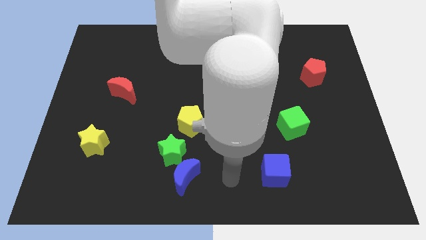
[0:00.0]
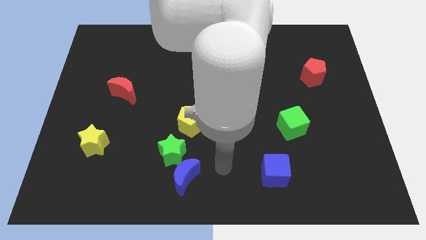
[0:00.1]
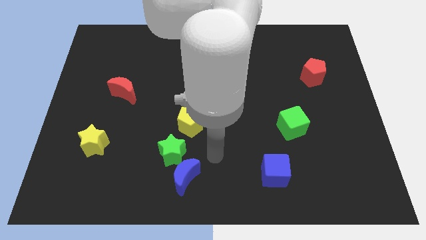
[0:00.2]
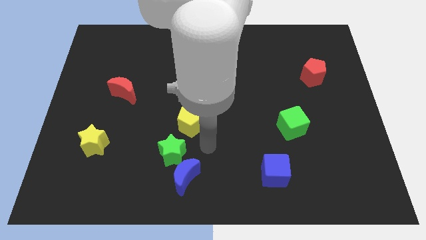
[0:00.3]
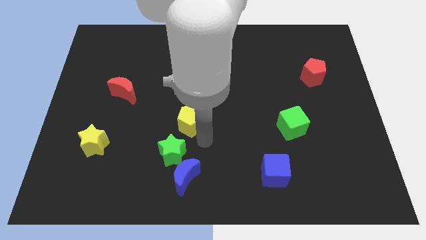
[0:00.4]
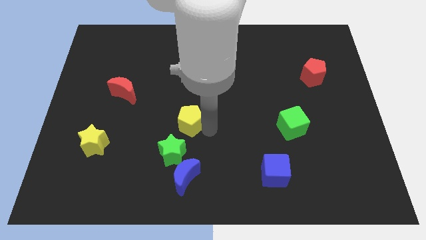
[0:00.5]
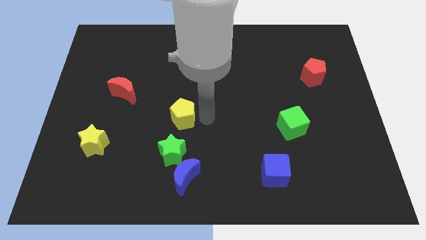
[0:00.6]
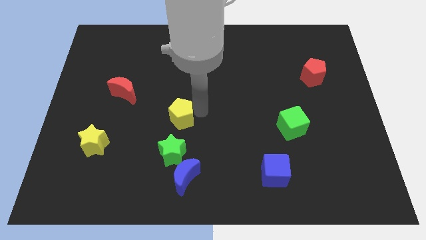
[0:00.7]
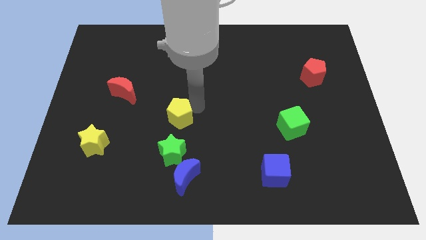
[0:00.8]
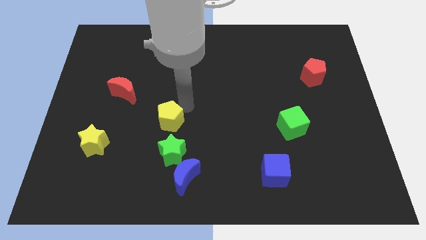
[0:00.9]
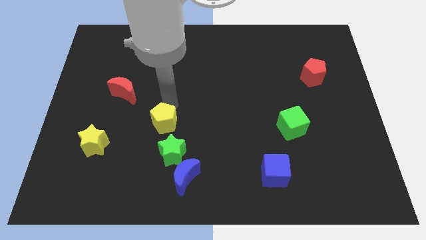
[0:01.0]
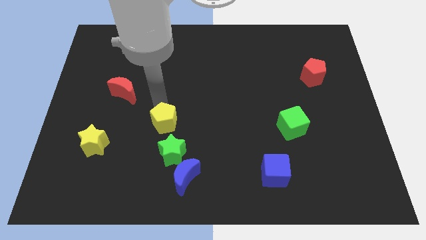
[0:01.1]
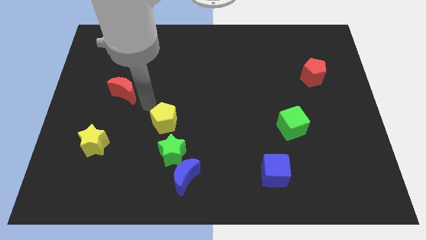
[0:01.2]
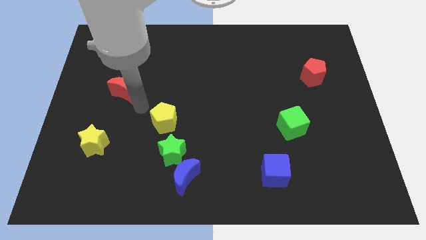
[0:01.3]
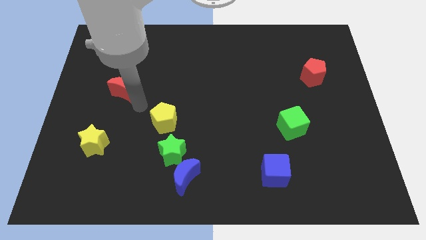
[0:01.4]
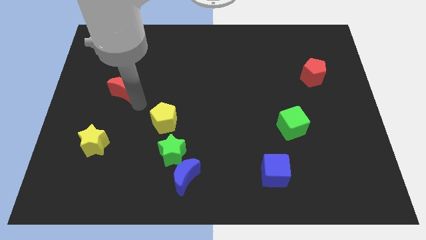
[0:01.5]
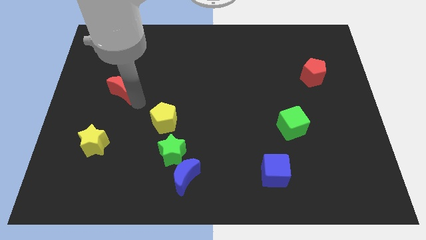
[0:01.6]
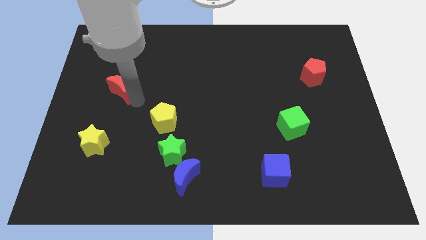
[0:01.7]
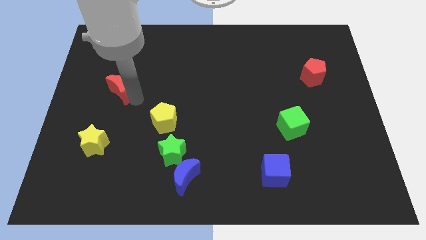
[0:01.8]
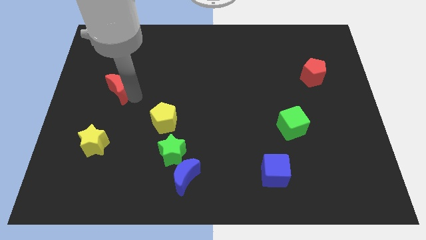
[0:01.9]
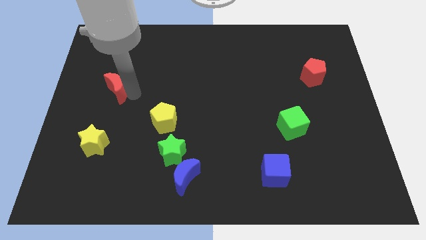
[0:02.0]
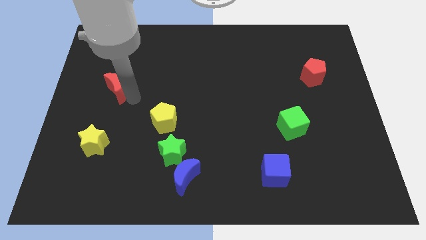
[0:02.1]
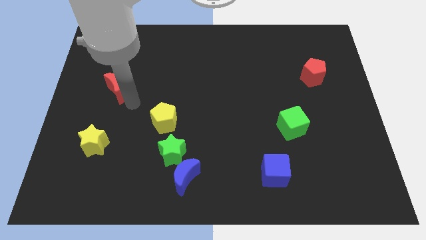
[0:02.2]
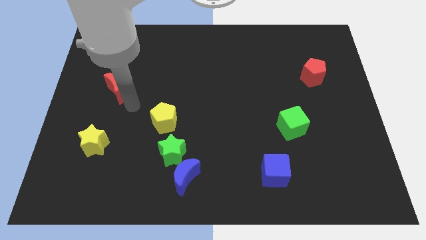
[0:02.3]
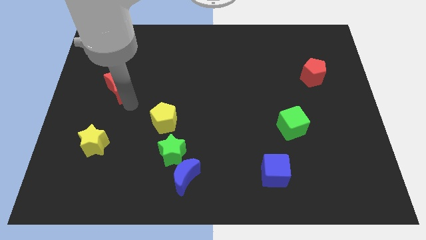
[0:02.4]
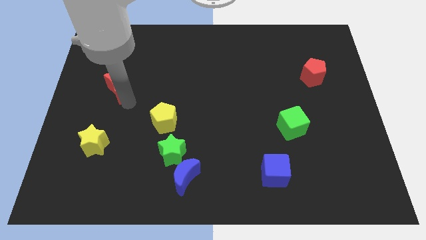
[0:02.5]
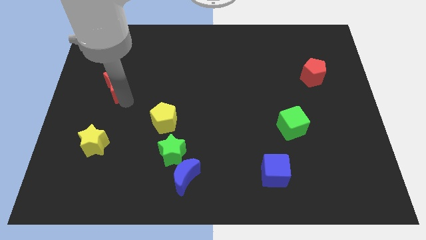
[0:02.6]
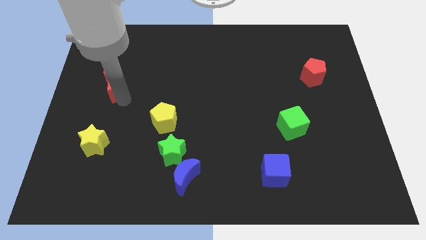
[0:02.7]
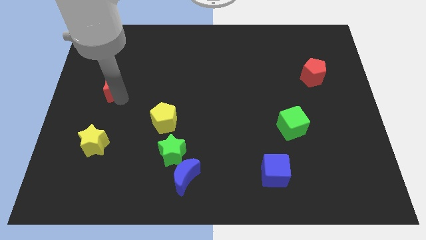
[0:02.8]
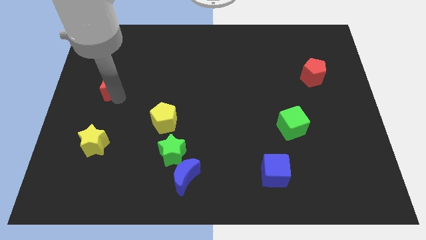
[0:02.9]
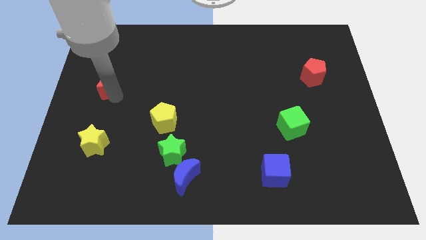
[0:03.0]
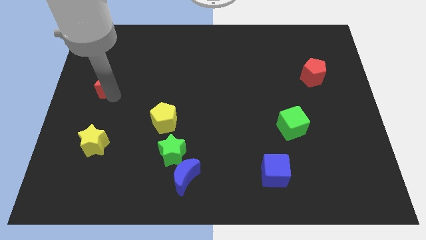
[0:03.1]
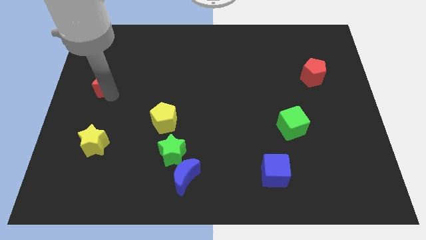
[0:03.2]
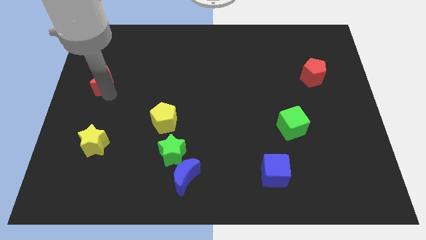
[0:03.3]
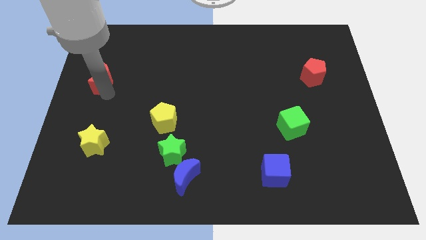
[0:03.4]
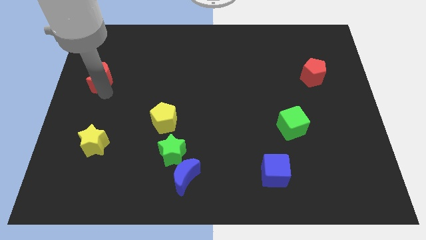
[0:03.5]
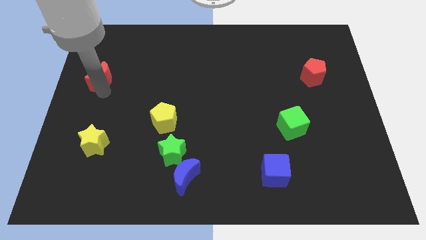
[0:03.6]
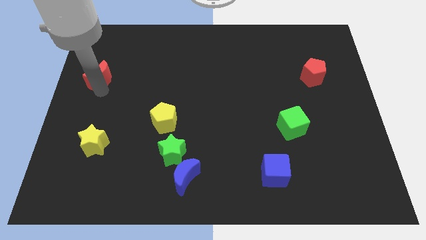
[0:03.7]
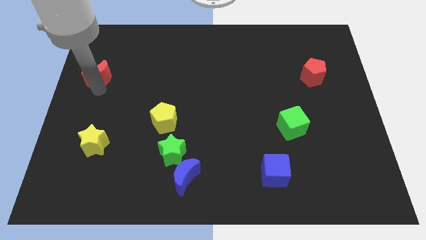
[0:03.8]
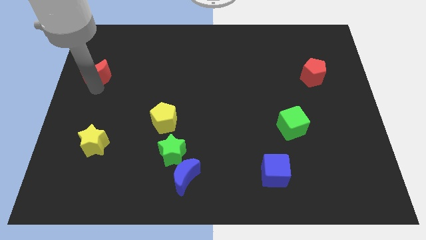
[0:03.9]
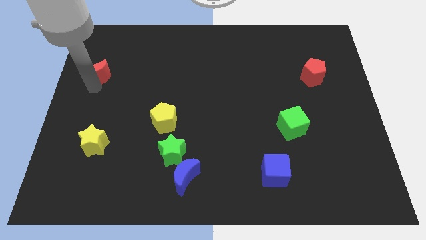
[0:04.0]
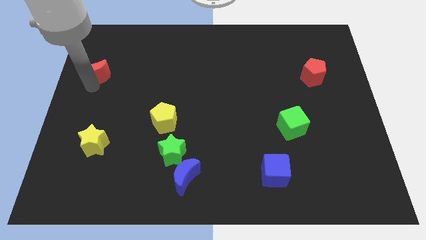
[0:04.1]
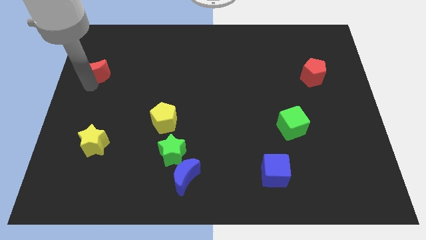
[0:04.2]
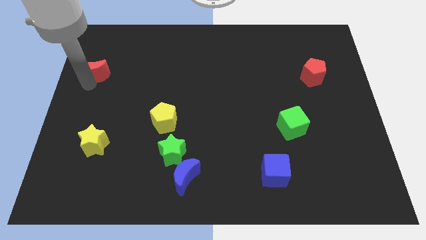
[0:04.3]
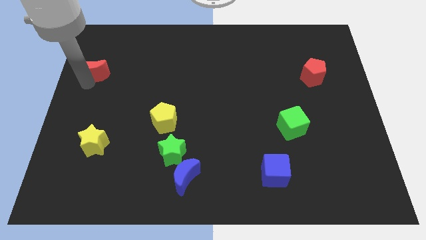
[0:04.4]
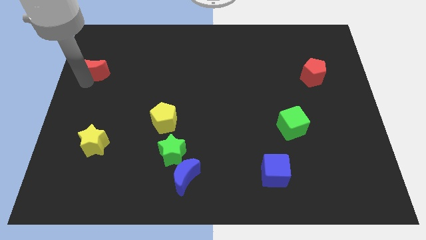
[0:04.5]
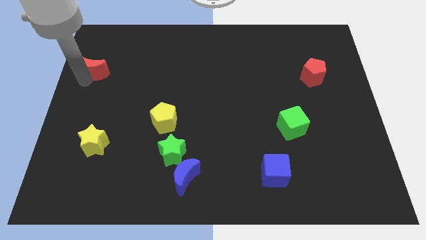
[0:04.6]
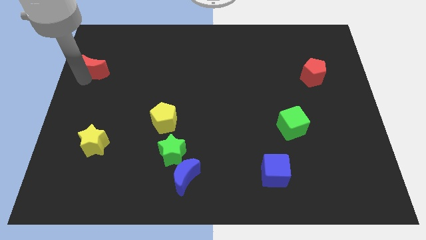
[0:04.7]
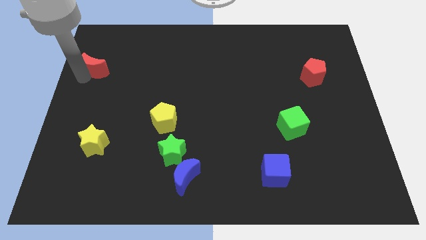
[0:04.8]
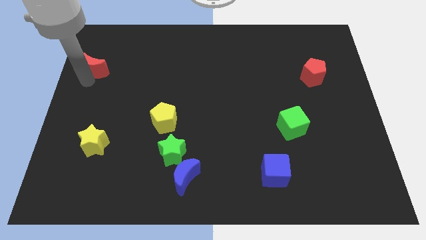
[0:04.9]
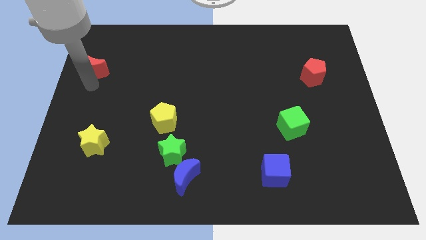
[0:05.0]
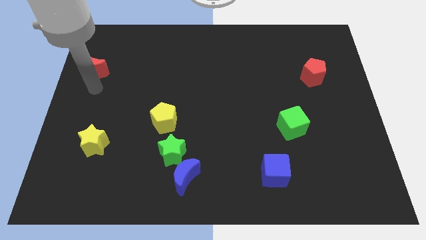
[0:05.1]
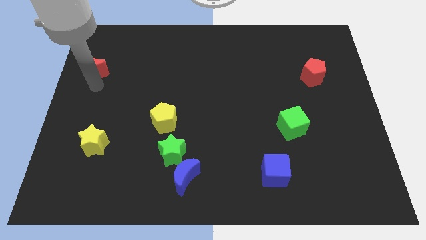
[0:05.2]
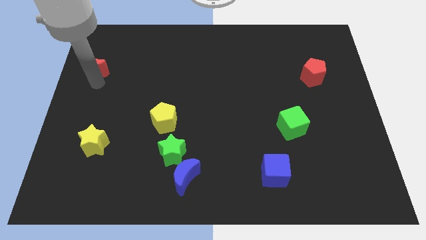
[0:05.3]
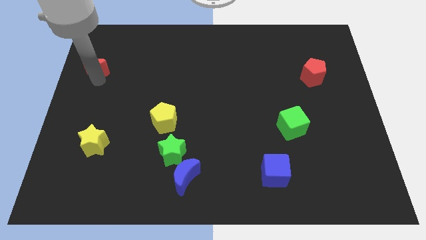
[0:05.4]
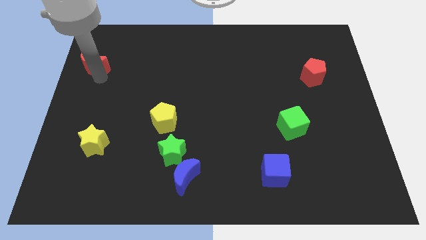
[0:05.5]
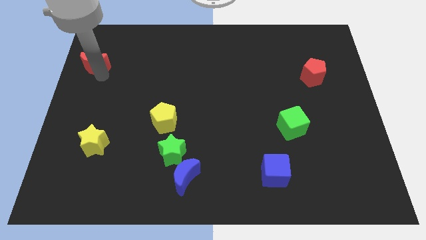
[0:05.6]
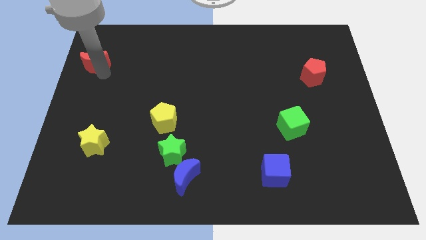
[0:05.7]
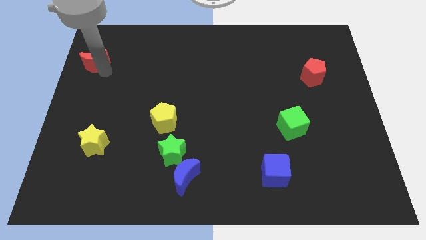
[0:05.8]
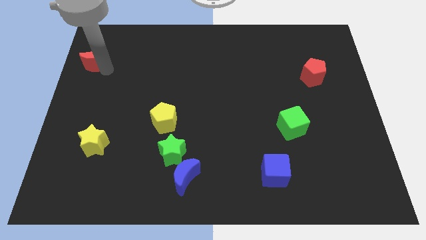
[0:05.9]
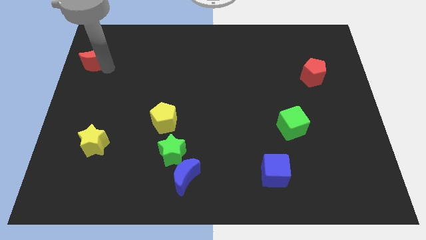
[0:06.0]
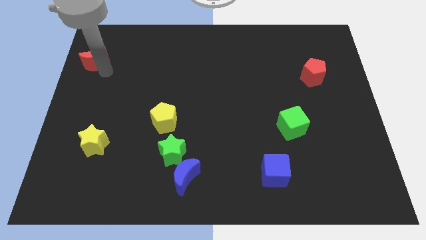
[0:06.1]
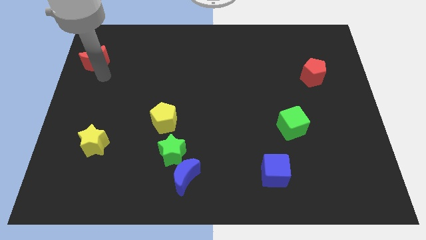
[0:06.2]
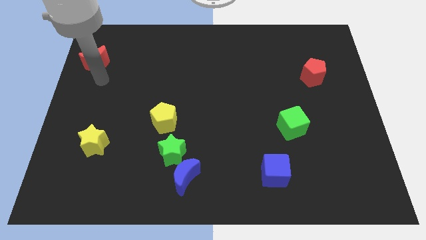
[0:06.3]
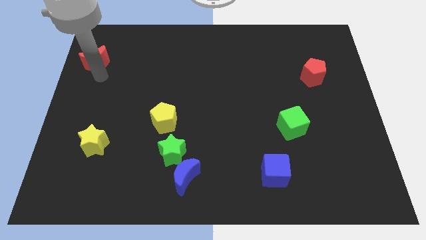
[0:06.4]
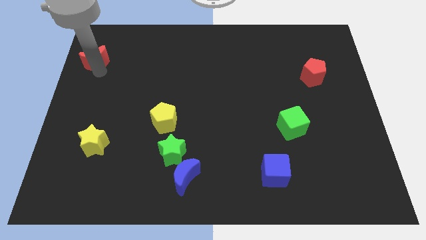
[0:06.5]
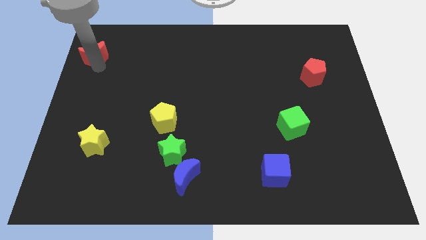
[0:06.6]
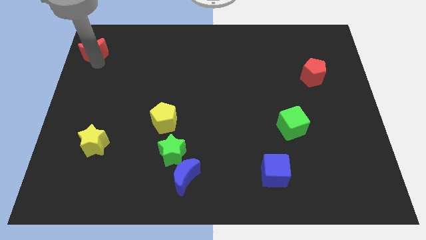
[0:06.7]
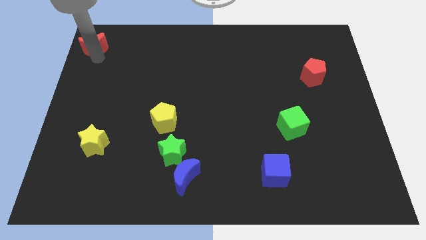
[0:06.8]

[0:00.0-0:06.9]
slide the red moon to the top left
